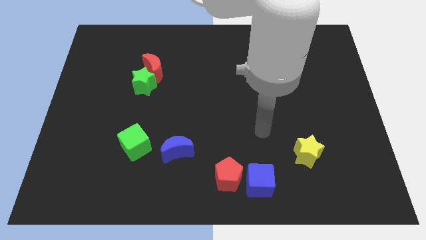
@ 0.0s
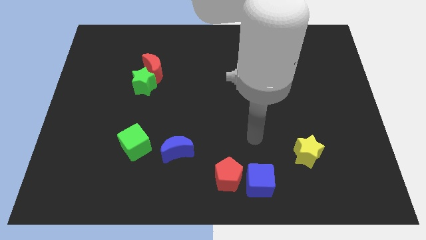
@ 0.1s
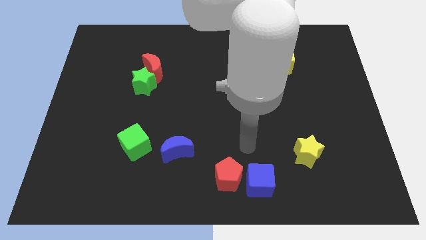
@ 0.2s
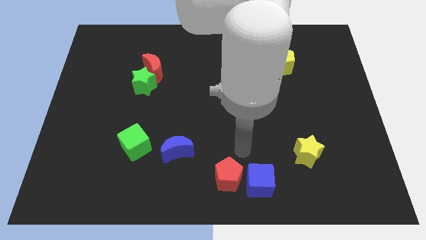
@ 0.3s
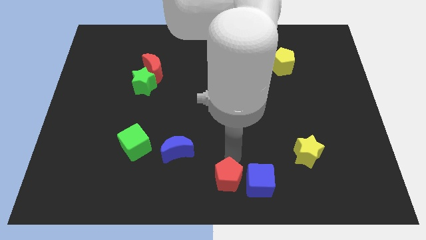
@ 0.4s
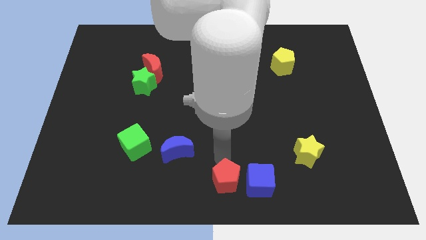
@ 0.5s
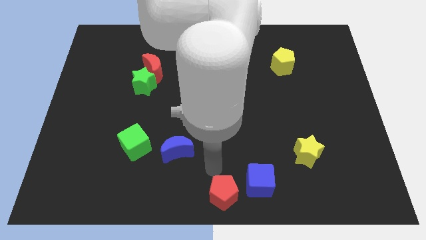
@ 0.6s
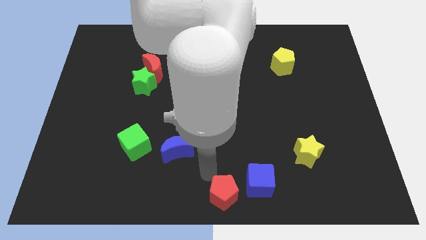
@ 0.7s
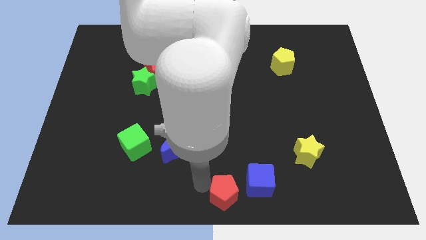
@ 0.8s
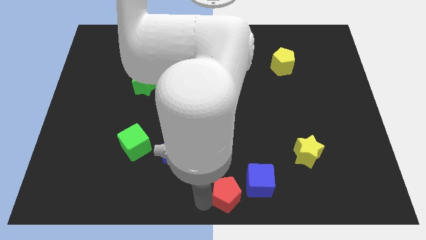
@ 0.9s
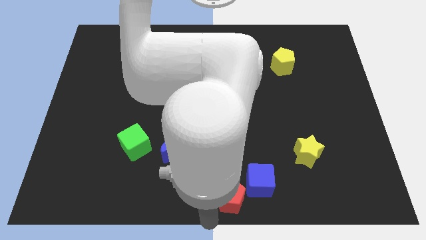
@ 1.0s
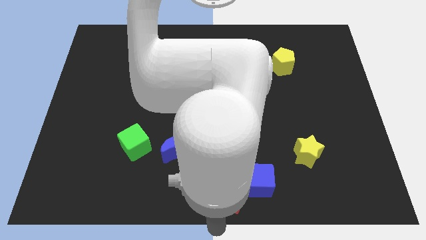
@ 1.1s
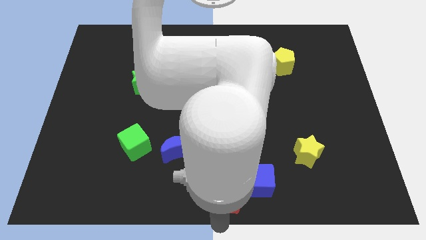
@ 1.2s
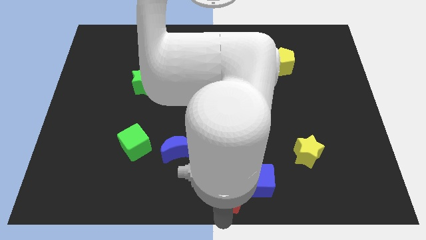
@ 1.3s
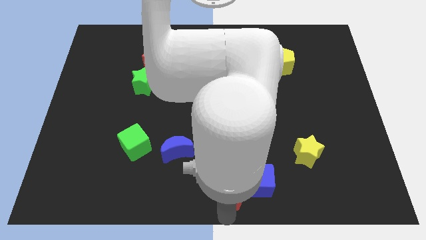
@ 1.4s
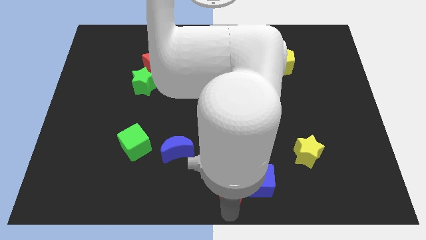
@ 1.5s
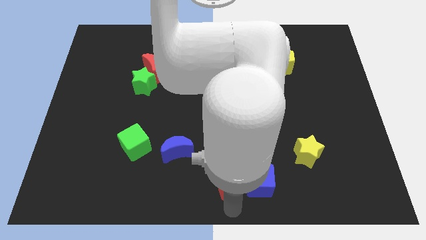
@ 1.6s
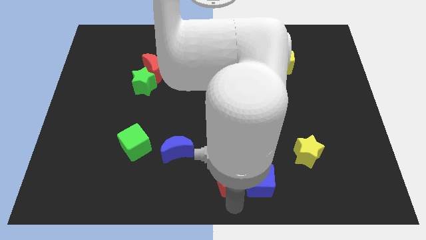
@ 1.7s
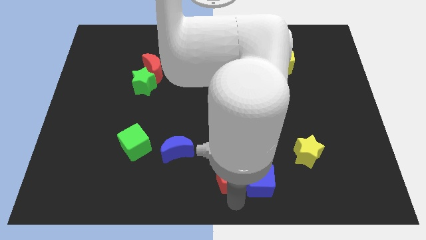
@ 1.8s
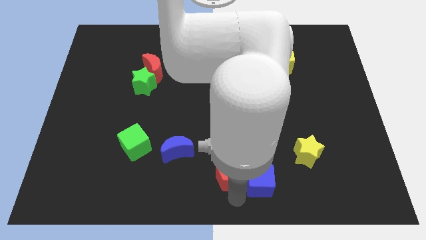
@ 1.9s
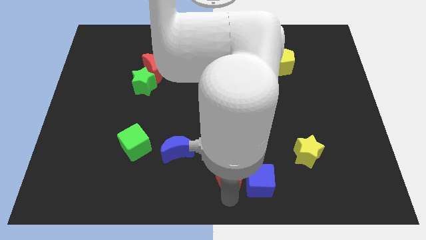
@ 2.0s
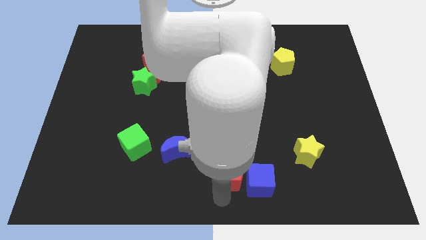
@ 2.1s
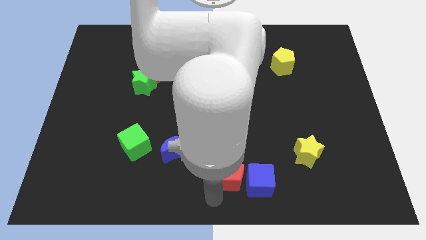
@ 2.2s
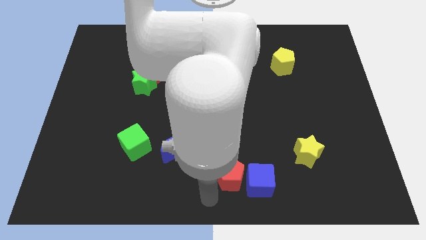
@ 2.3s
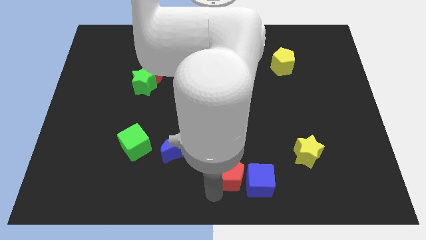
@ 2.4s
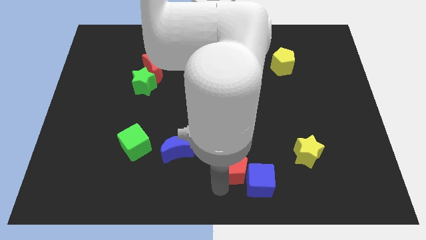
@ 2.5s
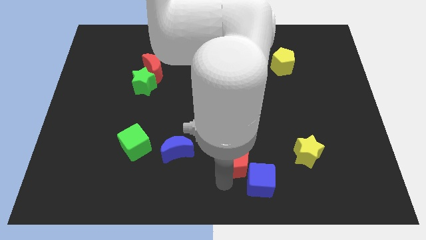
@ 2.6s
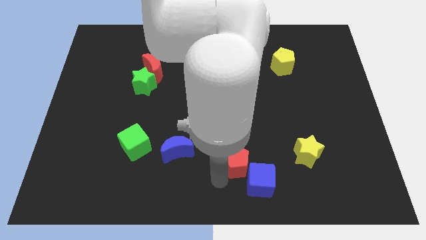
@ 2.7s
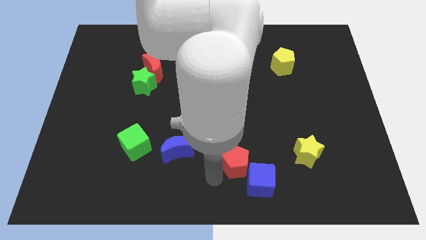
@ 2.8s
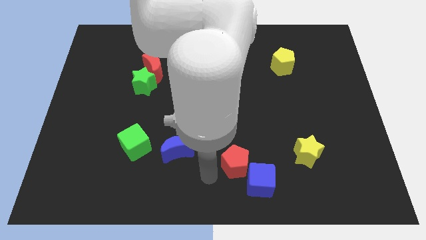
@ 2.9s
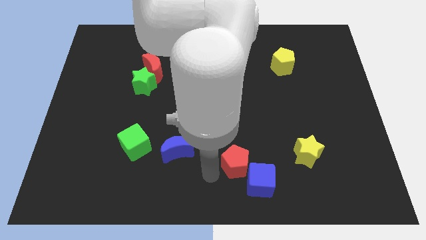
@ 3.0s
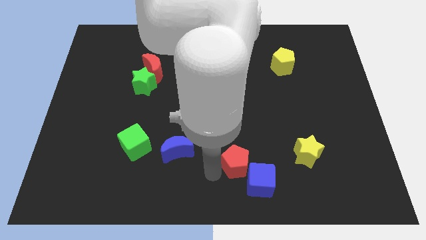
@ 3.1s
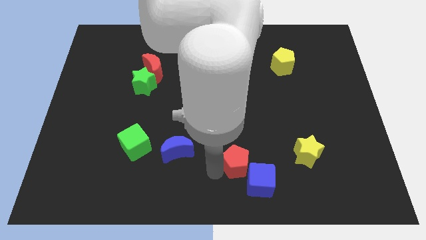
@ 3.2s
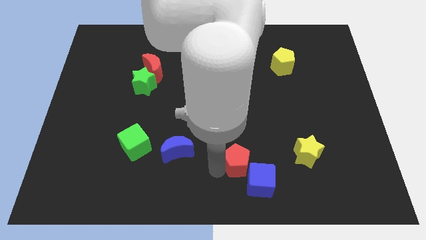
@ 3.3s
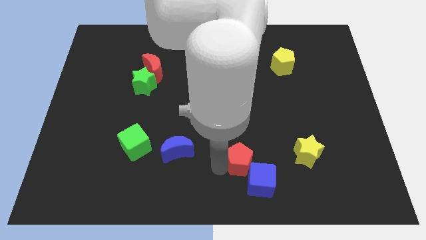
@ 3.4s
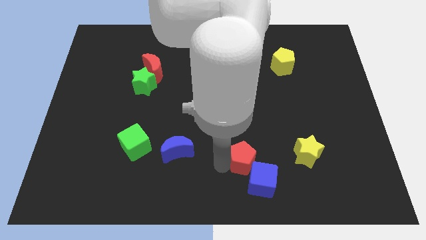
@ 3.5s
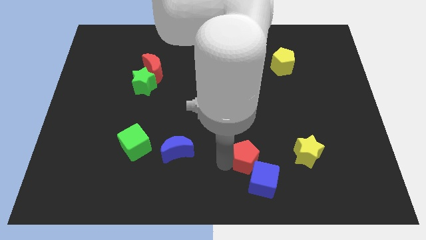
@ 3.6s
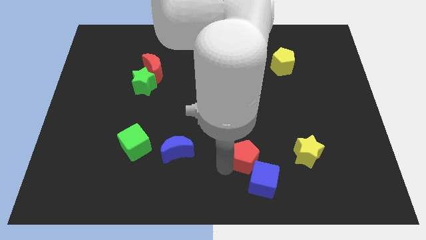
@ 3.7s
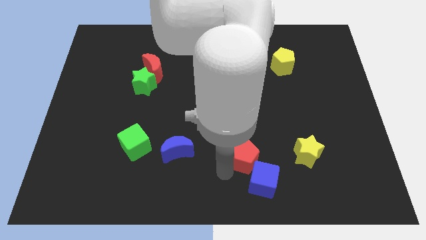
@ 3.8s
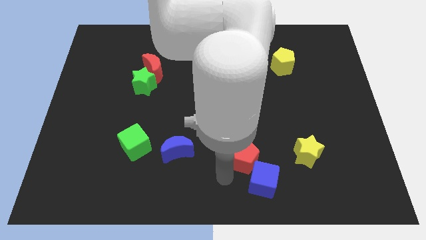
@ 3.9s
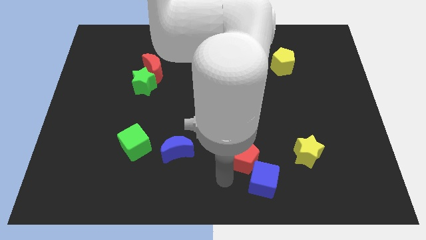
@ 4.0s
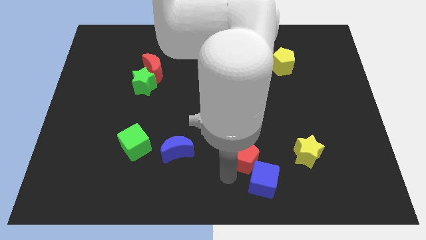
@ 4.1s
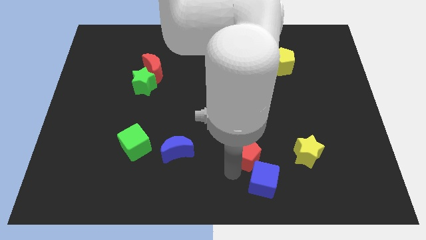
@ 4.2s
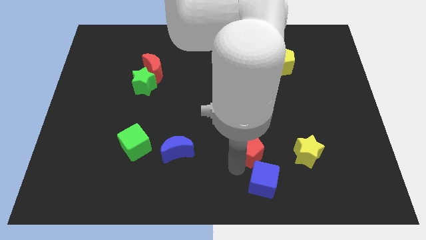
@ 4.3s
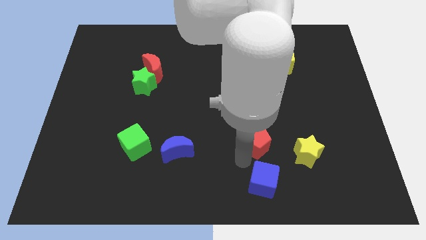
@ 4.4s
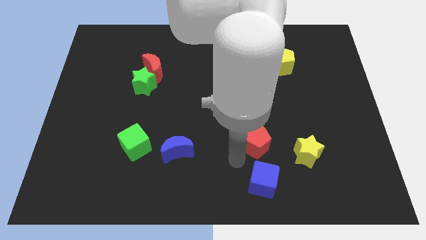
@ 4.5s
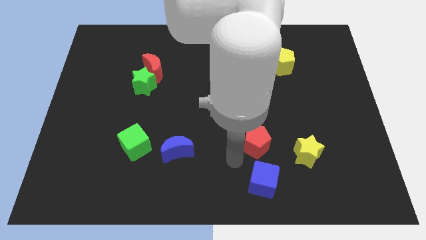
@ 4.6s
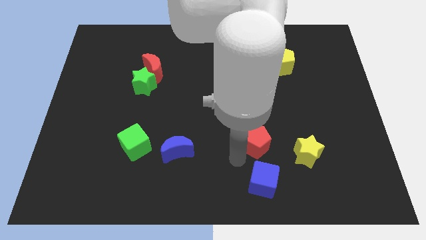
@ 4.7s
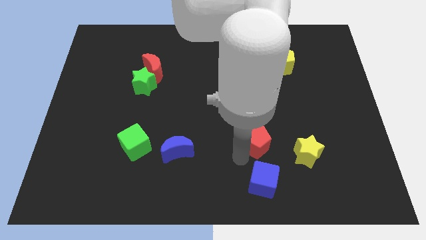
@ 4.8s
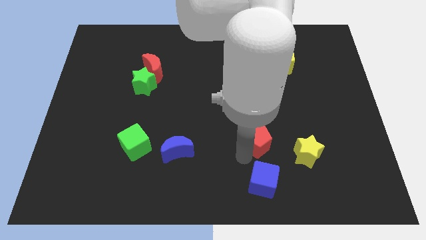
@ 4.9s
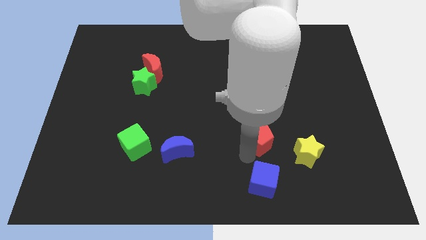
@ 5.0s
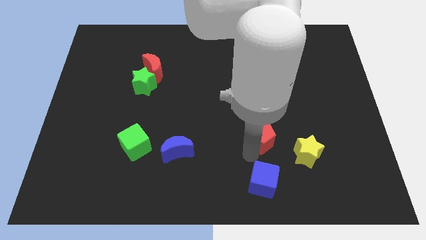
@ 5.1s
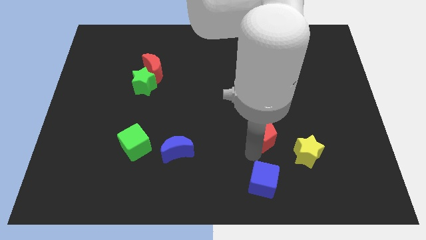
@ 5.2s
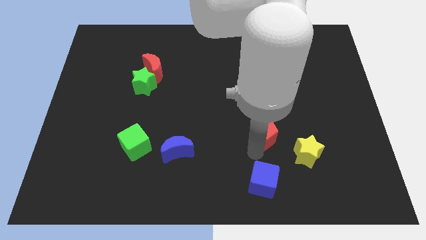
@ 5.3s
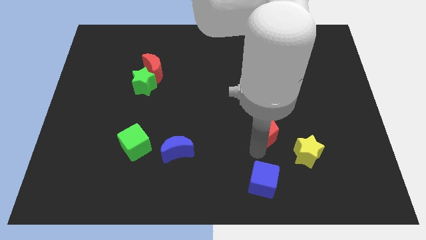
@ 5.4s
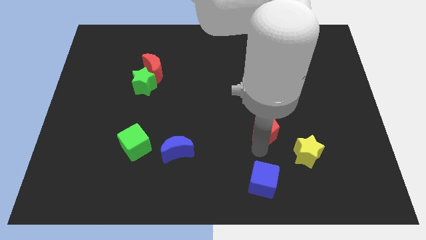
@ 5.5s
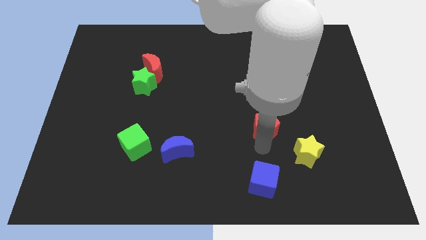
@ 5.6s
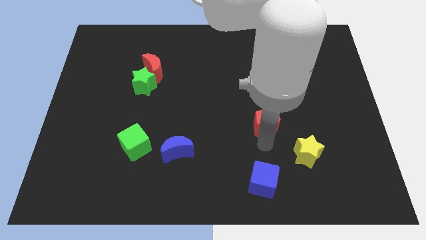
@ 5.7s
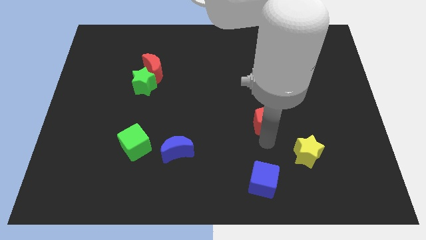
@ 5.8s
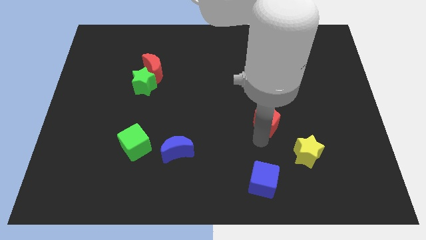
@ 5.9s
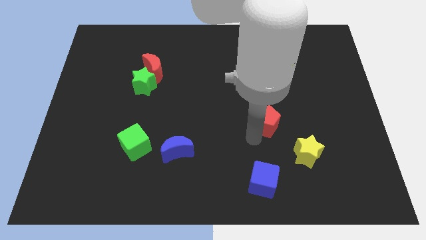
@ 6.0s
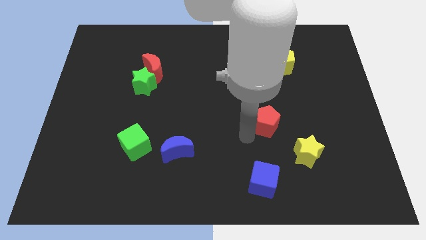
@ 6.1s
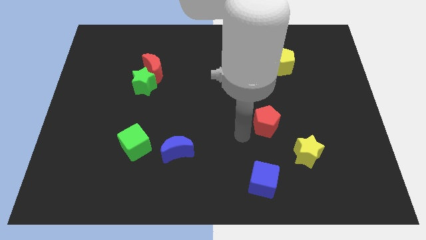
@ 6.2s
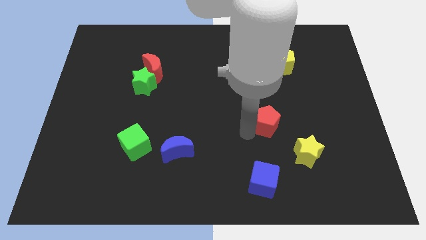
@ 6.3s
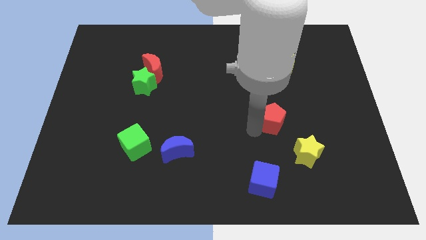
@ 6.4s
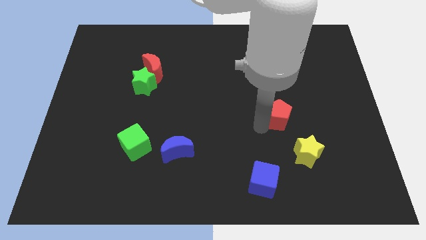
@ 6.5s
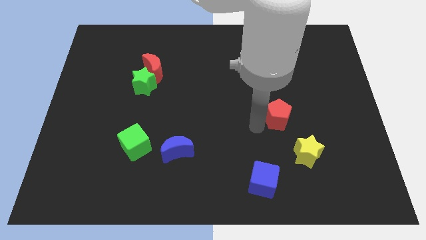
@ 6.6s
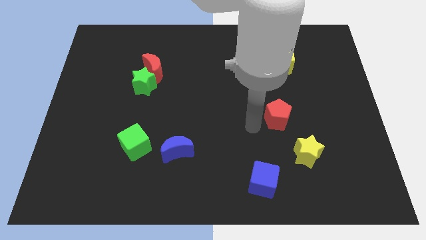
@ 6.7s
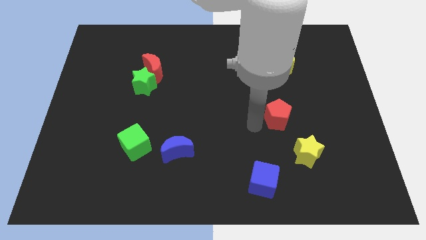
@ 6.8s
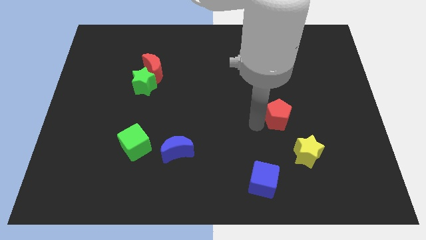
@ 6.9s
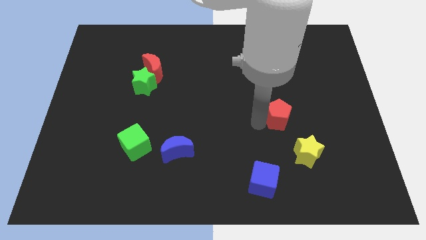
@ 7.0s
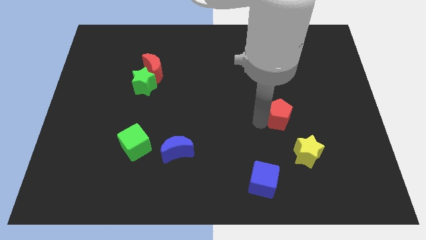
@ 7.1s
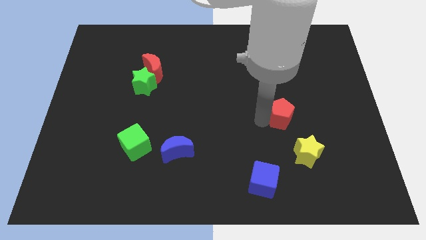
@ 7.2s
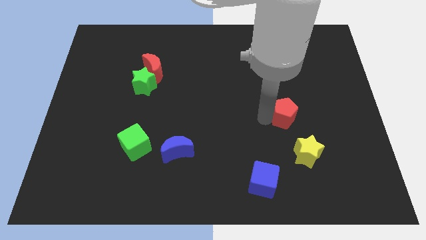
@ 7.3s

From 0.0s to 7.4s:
push the red pentagon diagonally up and to the right
